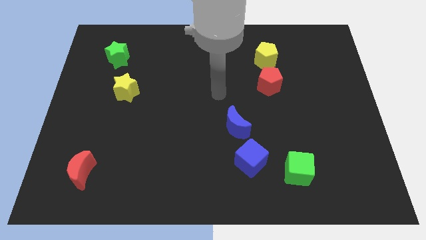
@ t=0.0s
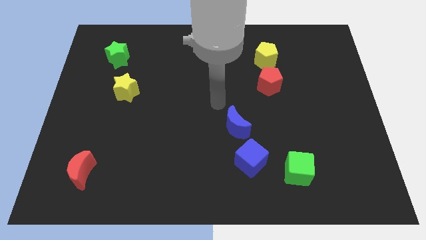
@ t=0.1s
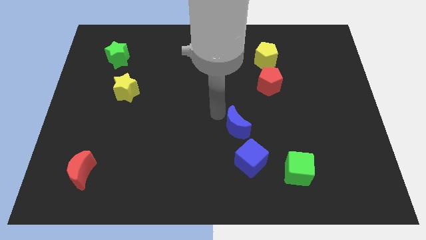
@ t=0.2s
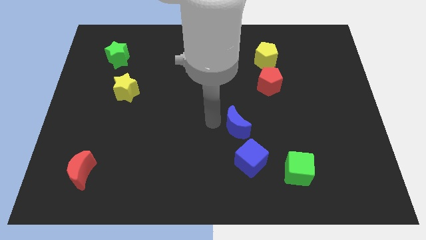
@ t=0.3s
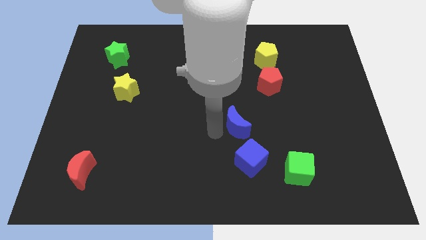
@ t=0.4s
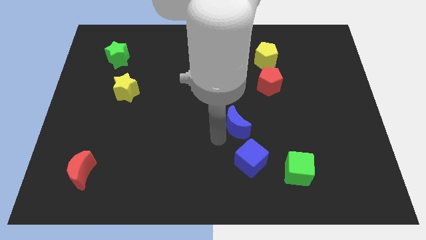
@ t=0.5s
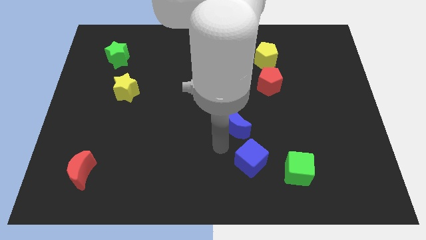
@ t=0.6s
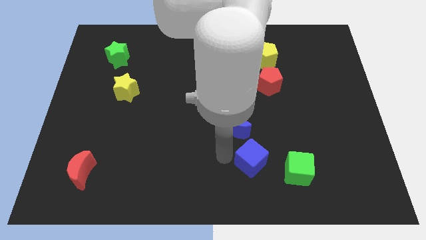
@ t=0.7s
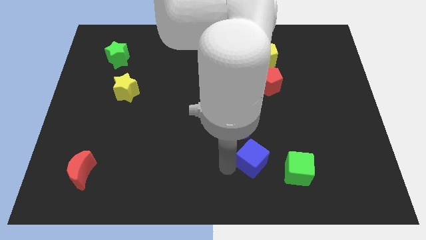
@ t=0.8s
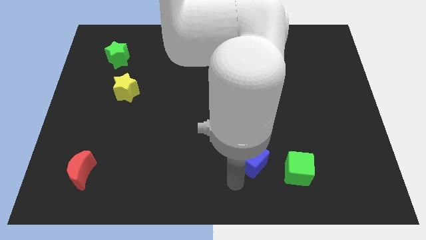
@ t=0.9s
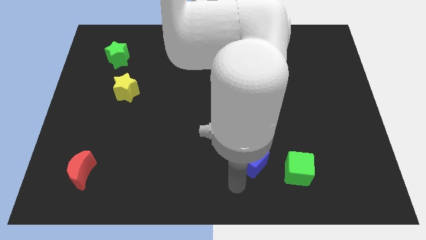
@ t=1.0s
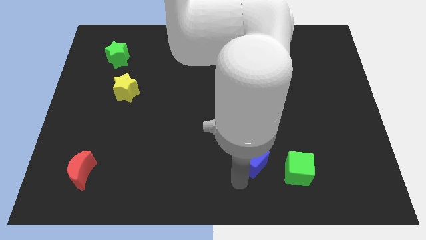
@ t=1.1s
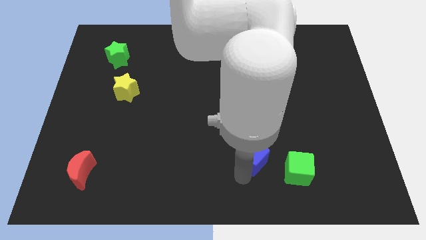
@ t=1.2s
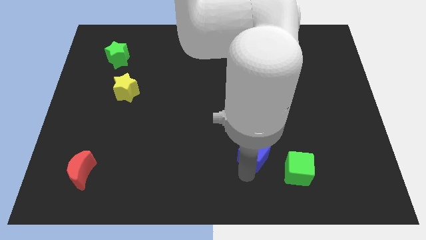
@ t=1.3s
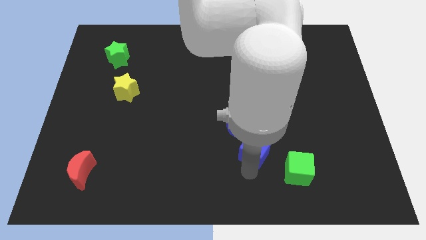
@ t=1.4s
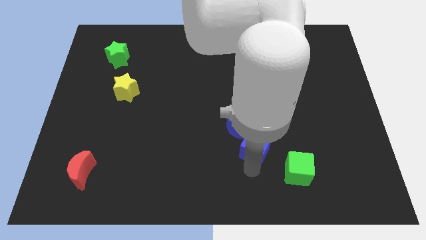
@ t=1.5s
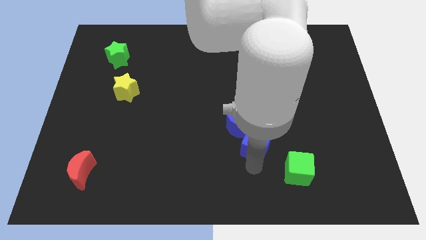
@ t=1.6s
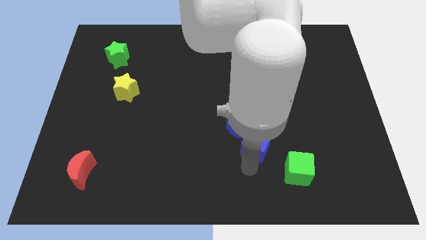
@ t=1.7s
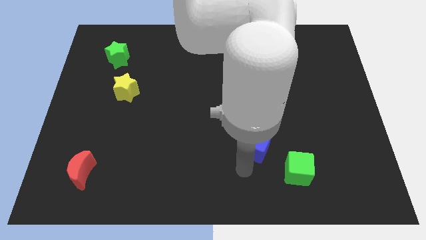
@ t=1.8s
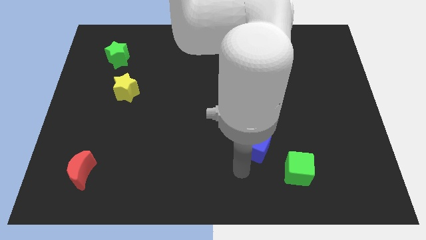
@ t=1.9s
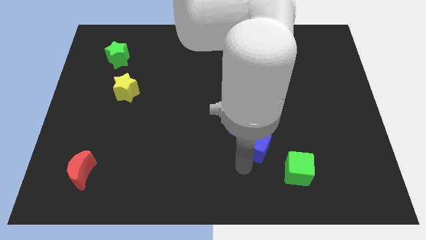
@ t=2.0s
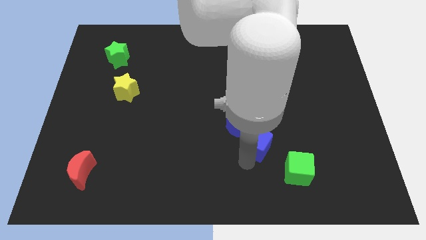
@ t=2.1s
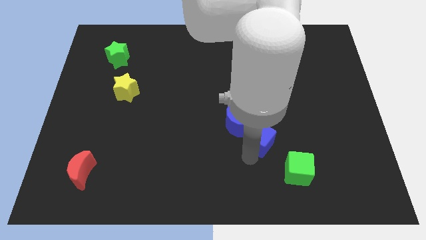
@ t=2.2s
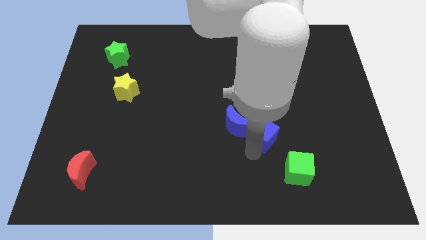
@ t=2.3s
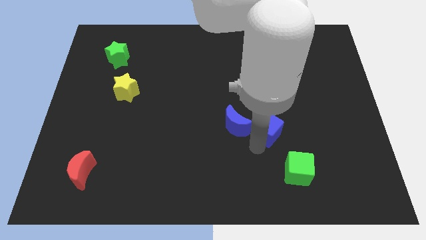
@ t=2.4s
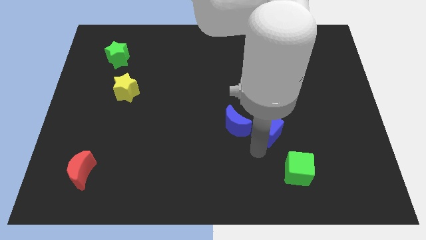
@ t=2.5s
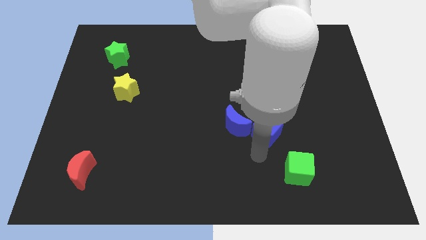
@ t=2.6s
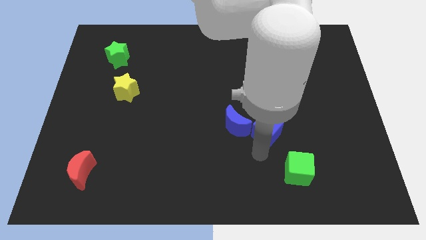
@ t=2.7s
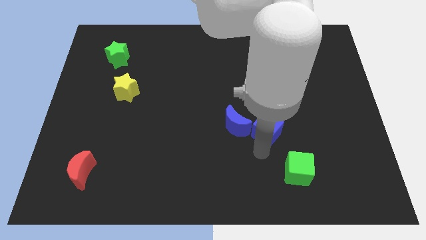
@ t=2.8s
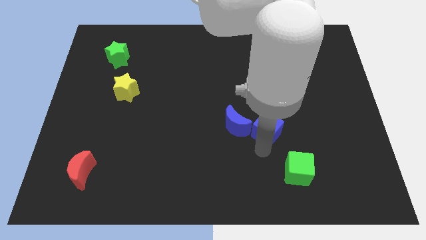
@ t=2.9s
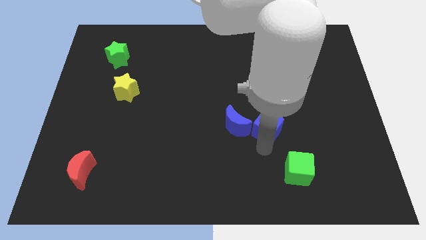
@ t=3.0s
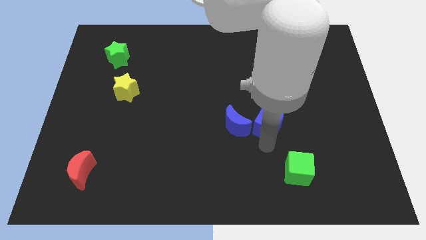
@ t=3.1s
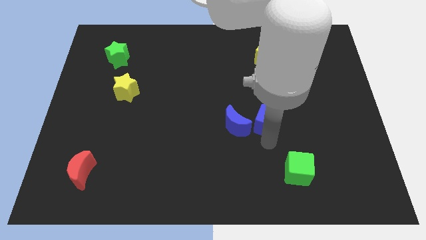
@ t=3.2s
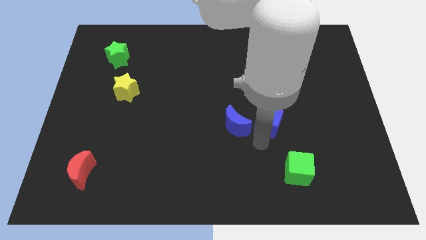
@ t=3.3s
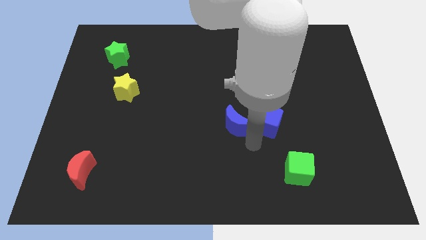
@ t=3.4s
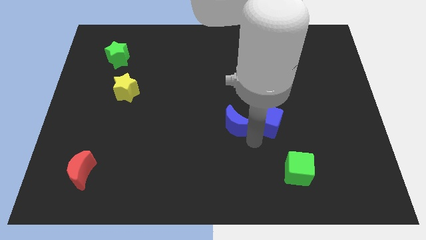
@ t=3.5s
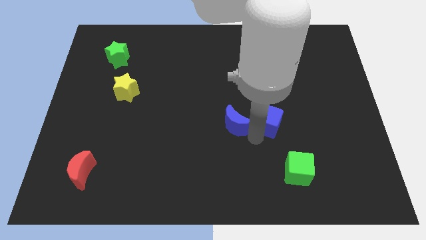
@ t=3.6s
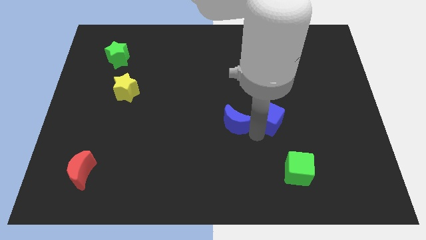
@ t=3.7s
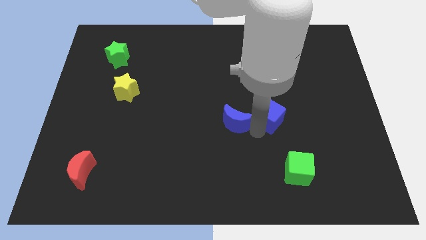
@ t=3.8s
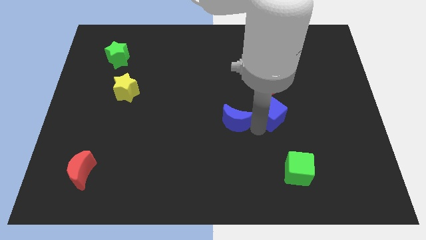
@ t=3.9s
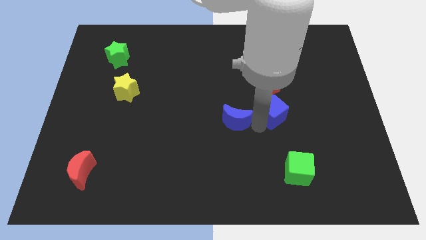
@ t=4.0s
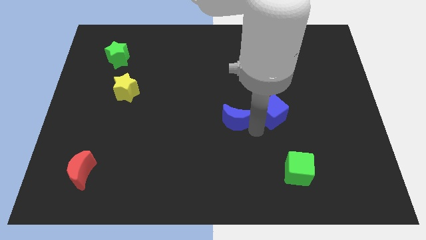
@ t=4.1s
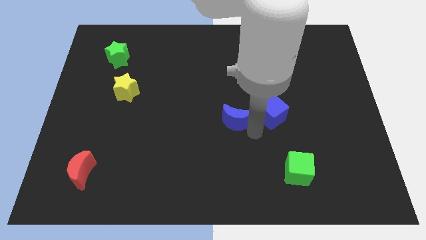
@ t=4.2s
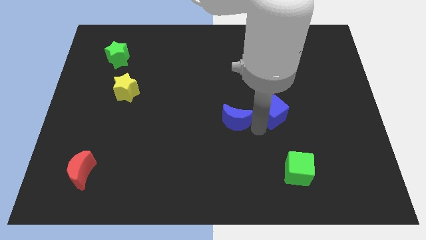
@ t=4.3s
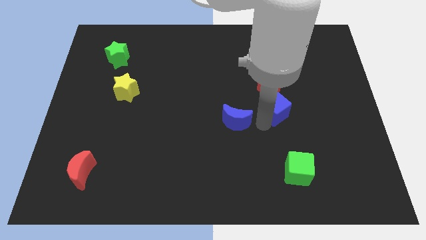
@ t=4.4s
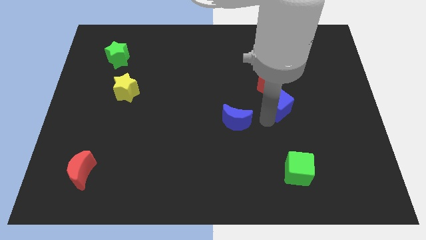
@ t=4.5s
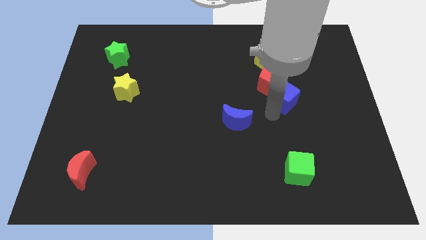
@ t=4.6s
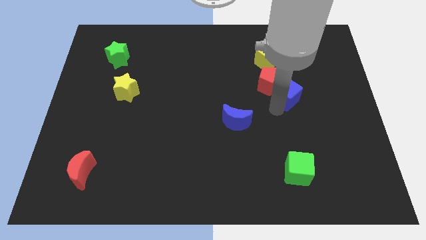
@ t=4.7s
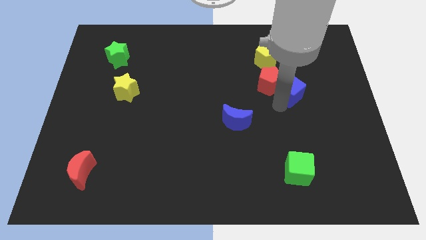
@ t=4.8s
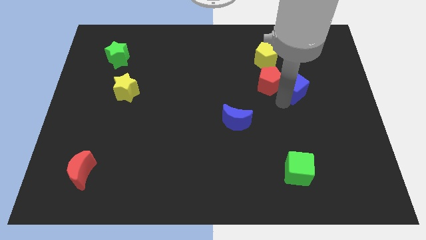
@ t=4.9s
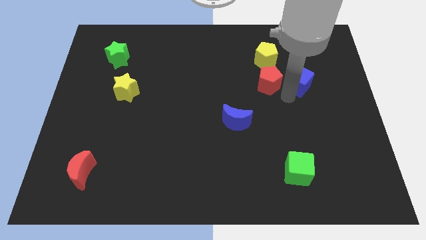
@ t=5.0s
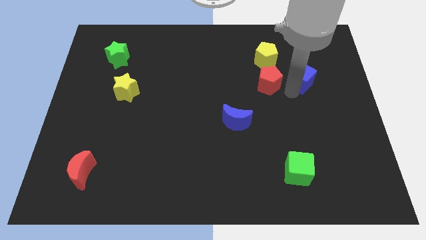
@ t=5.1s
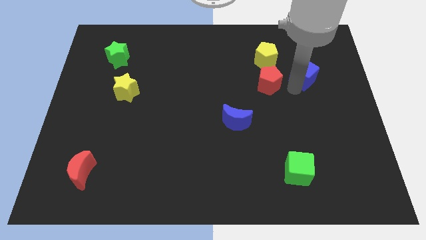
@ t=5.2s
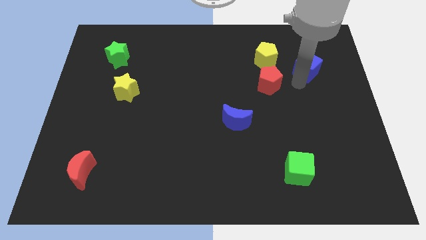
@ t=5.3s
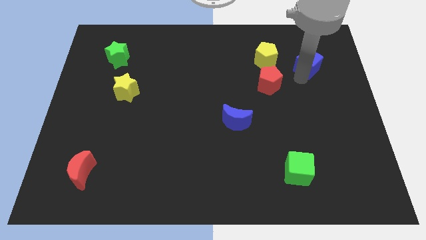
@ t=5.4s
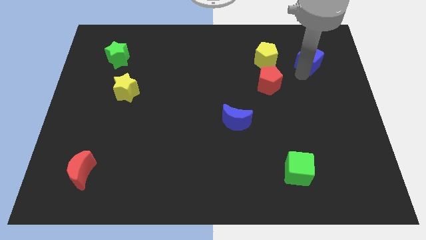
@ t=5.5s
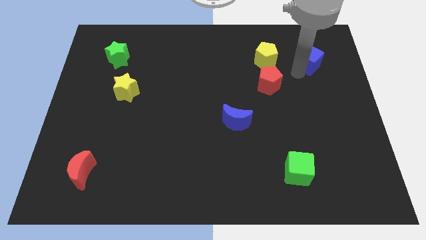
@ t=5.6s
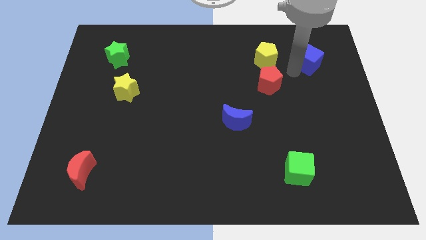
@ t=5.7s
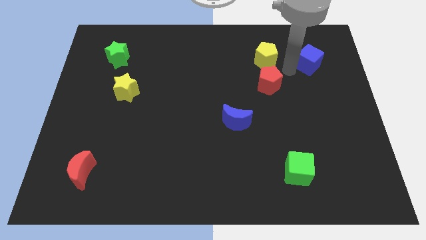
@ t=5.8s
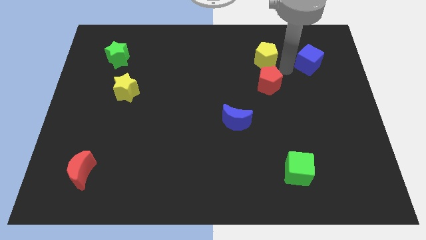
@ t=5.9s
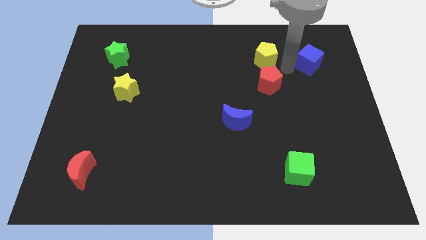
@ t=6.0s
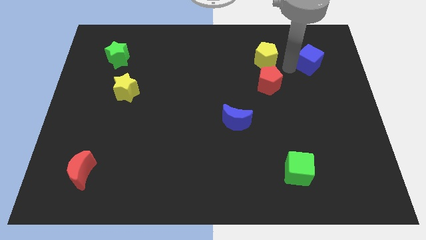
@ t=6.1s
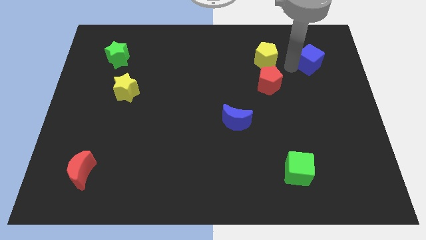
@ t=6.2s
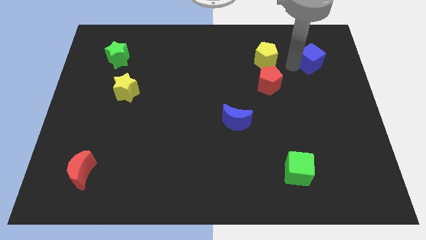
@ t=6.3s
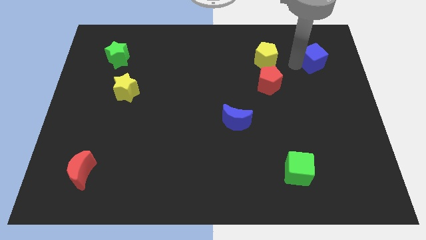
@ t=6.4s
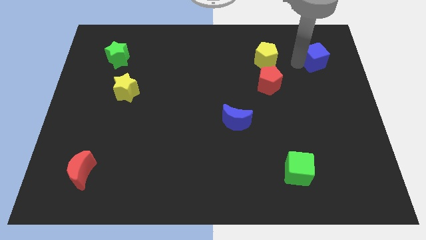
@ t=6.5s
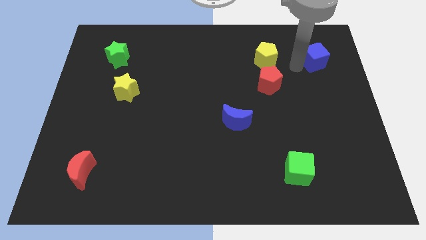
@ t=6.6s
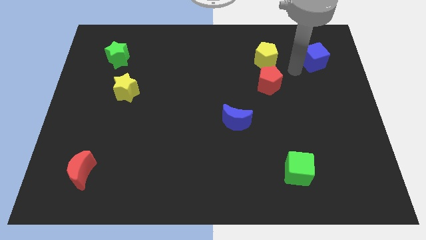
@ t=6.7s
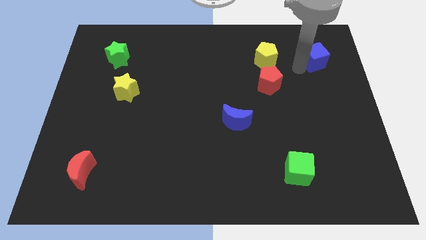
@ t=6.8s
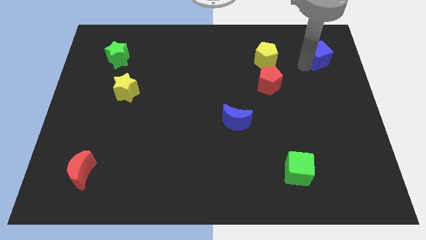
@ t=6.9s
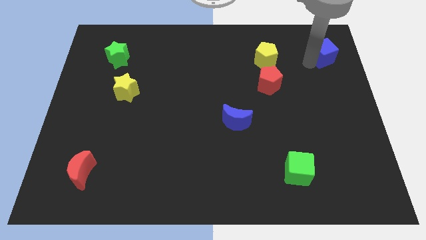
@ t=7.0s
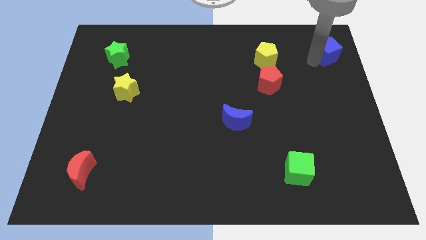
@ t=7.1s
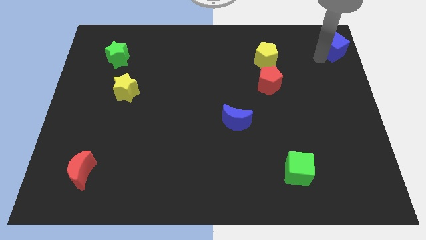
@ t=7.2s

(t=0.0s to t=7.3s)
move the blue cube to the upper right corner
